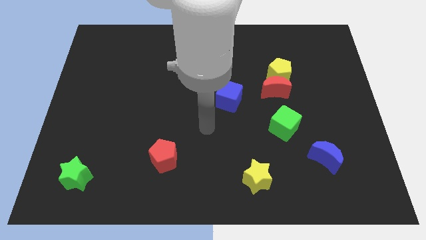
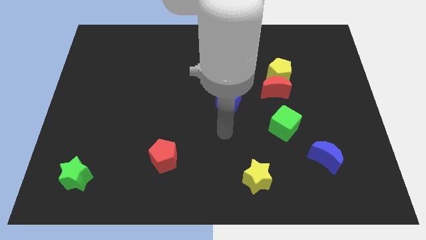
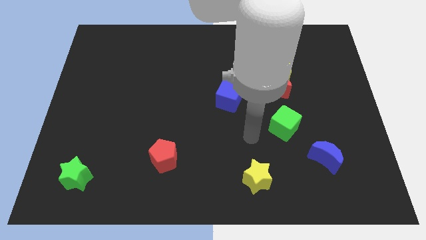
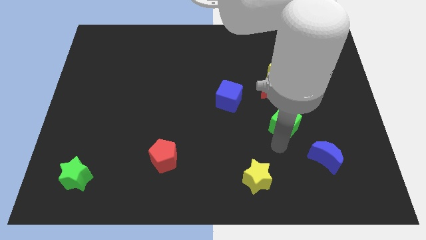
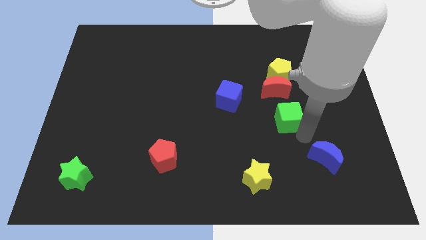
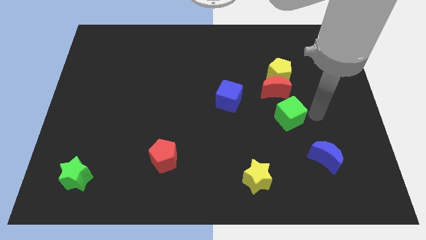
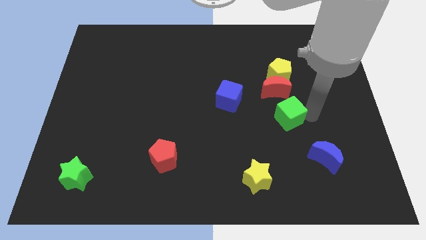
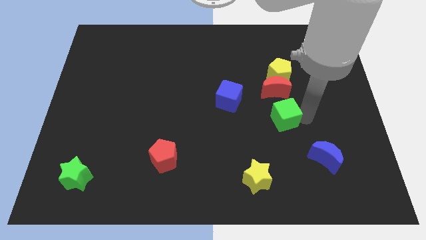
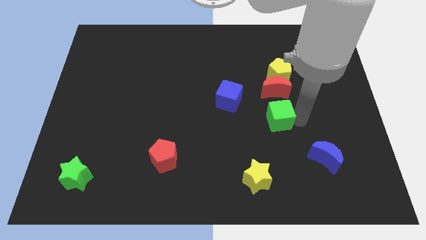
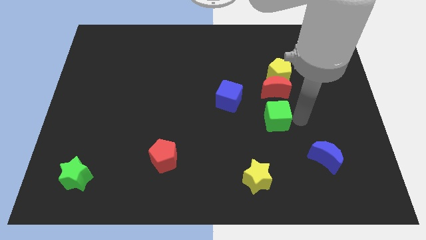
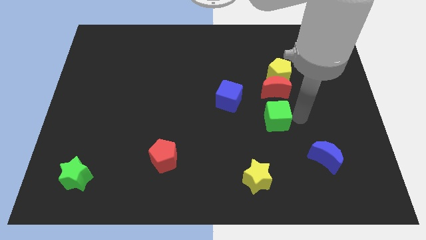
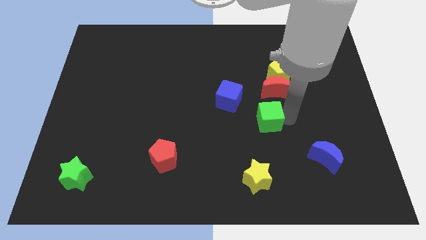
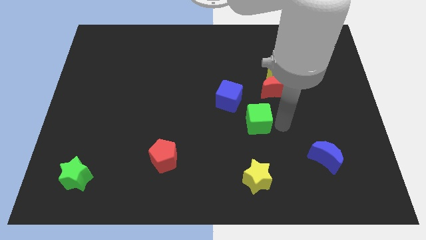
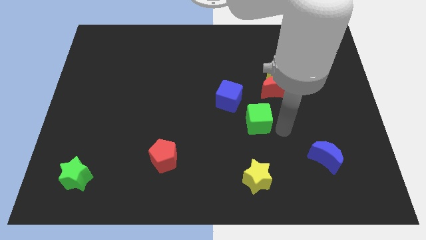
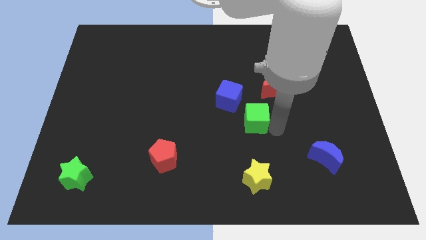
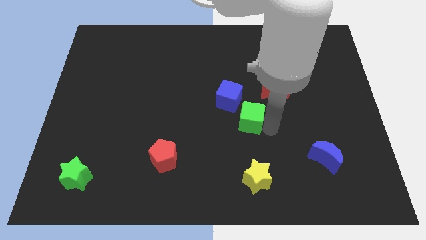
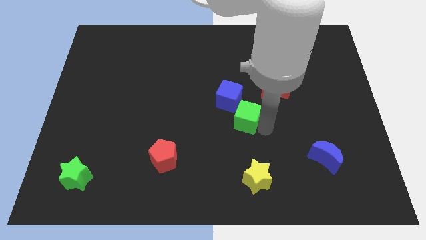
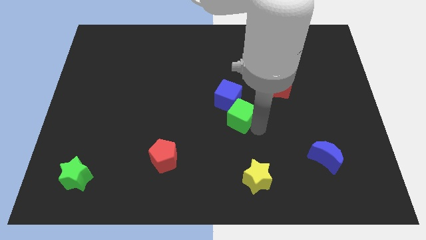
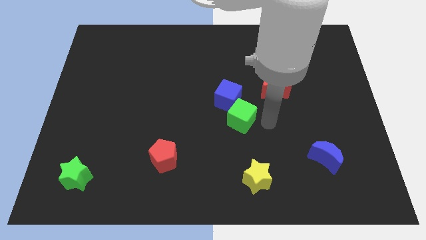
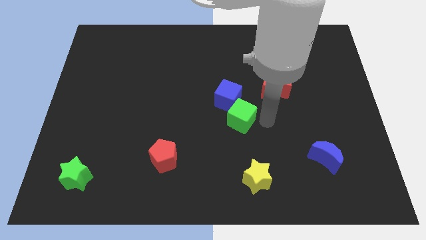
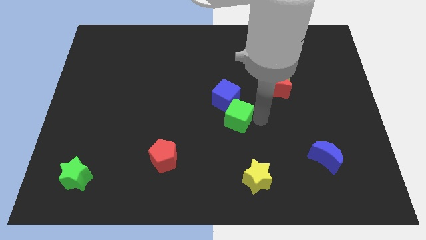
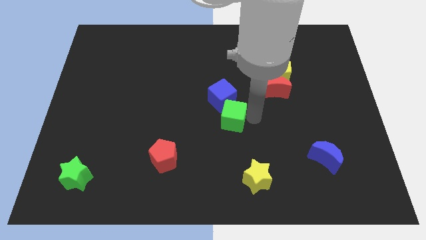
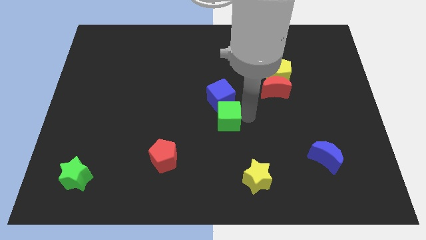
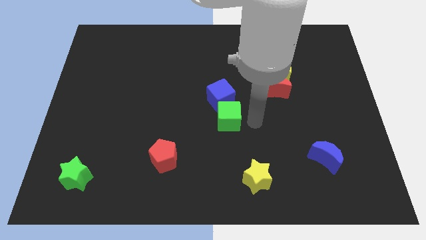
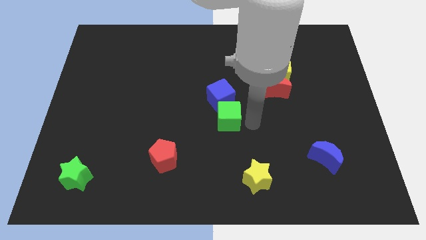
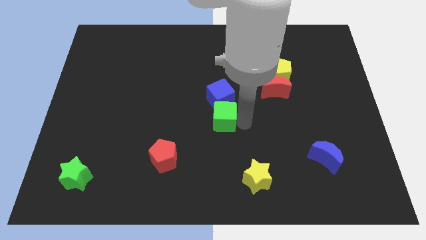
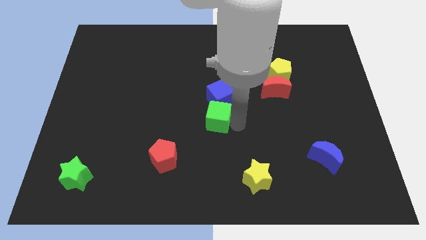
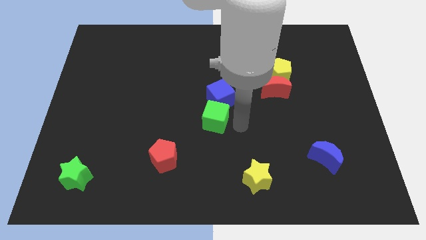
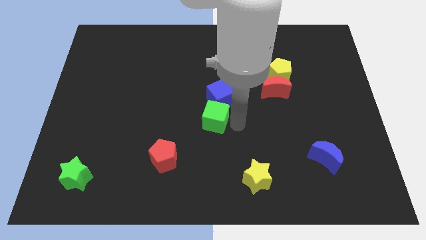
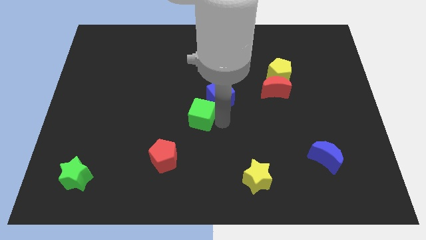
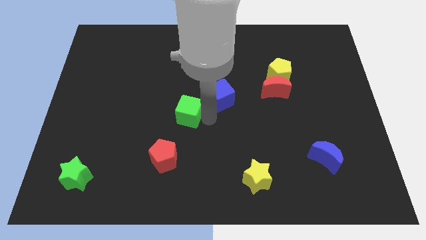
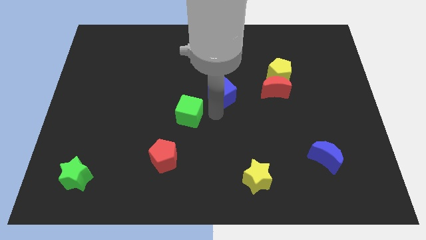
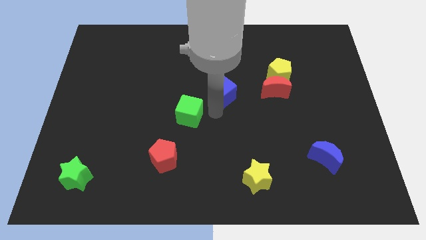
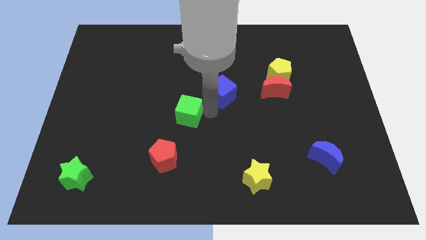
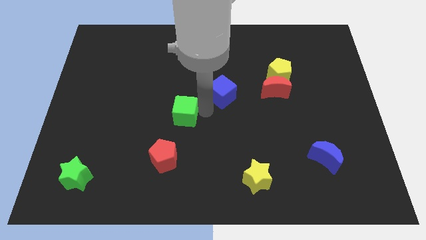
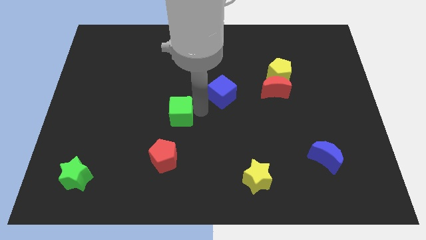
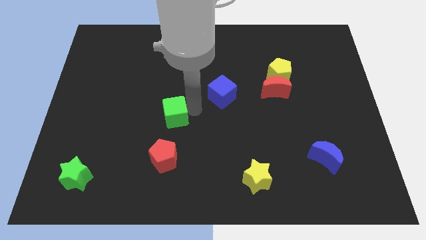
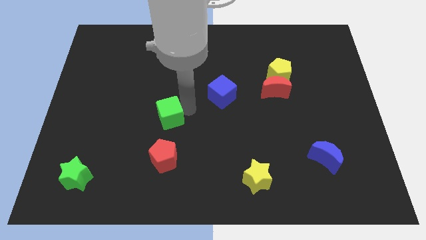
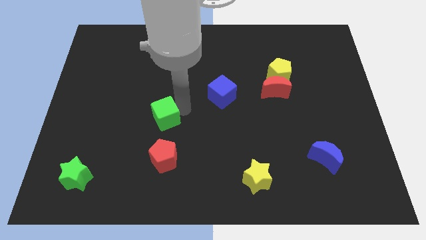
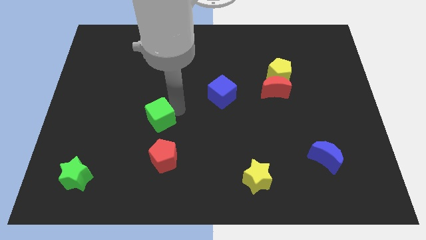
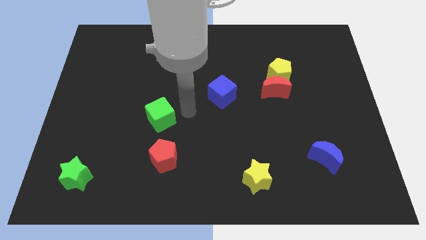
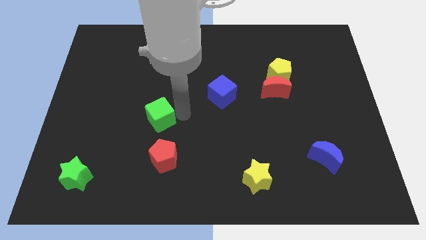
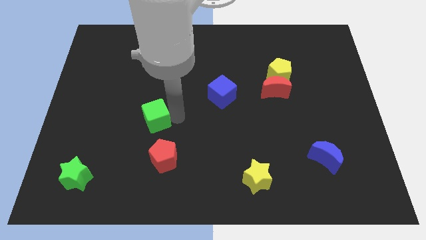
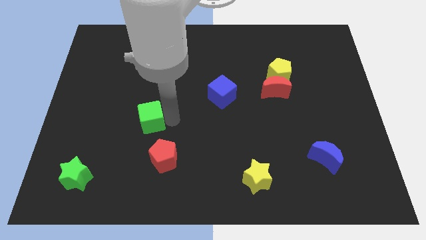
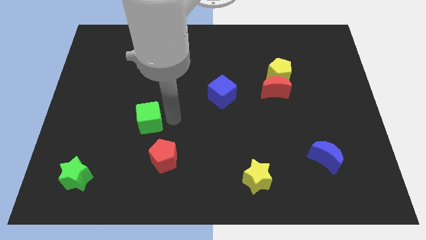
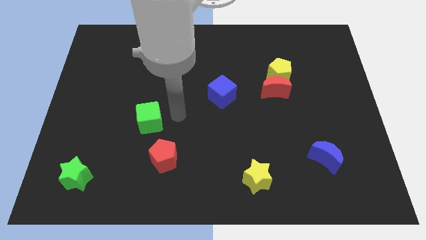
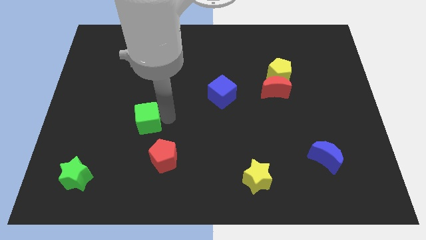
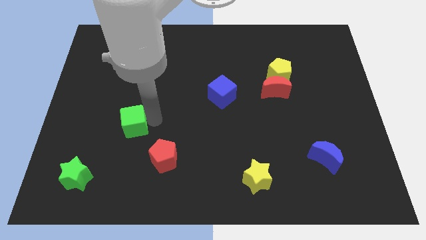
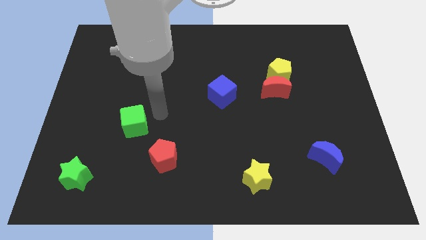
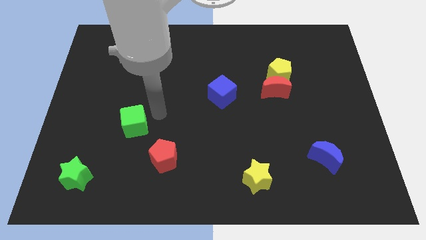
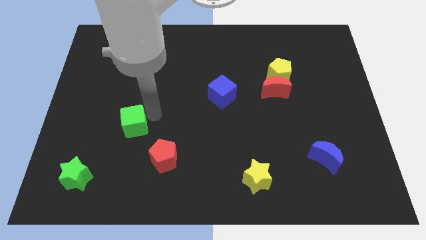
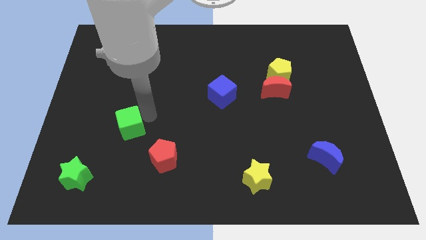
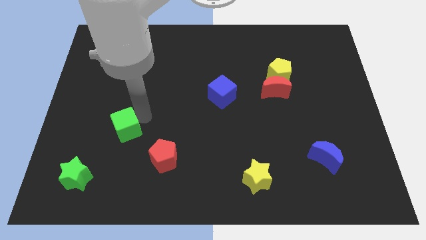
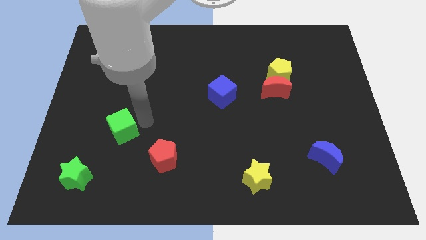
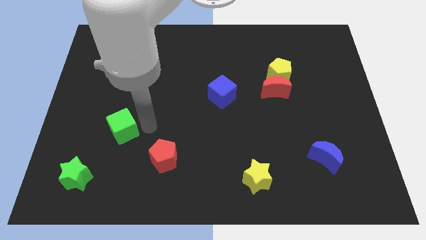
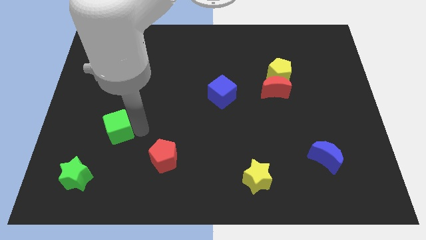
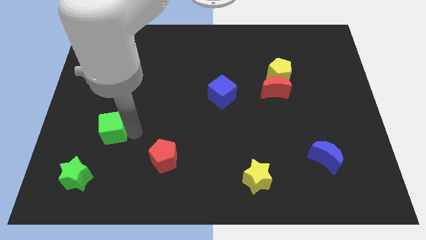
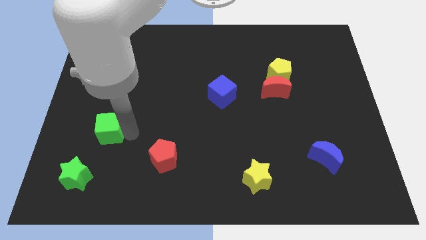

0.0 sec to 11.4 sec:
put the green cube to the top side of the green star

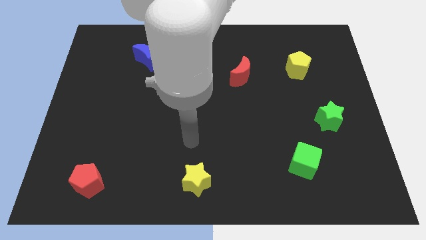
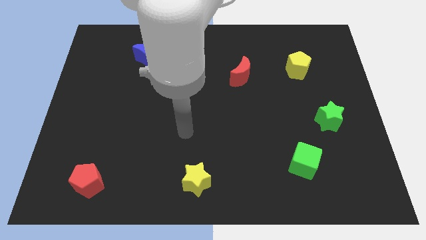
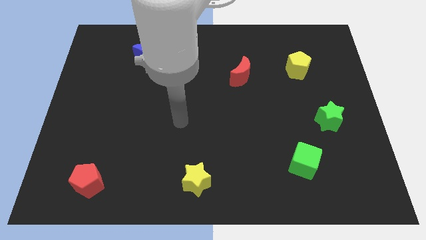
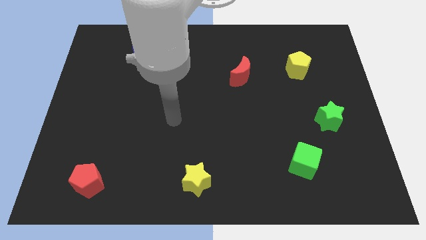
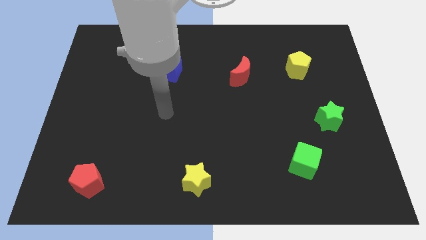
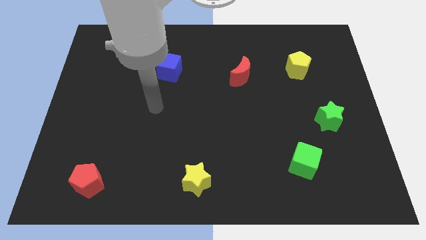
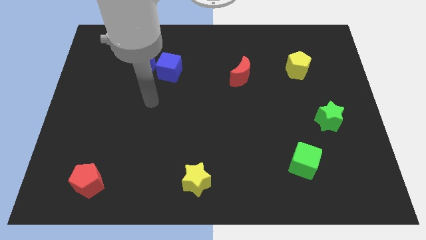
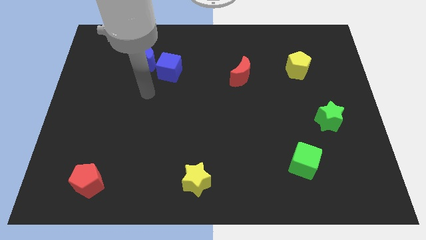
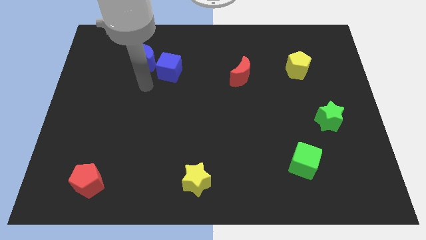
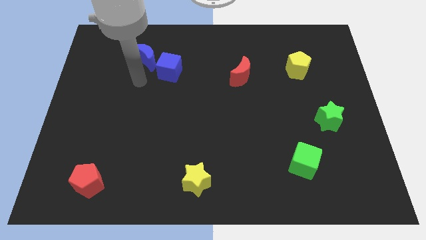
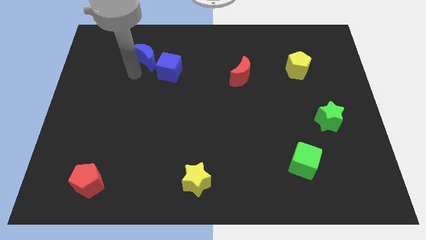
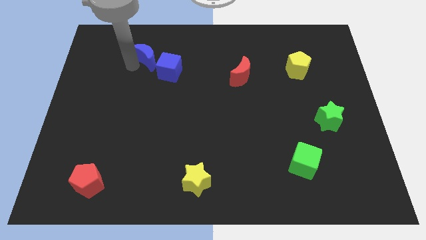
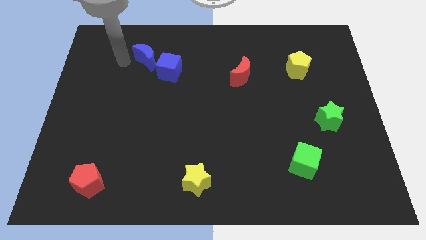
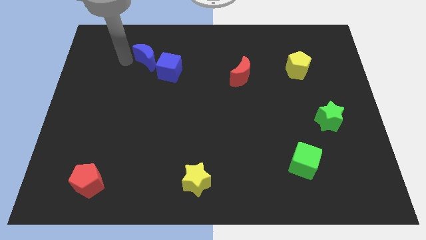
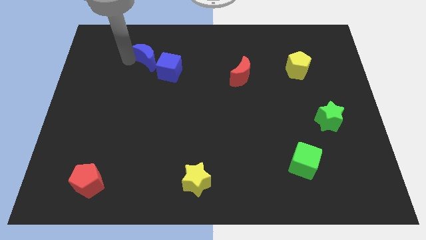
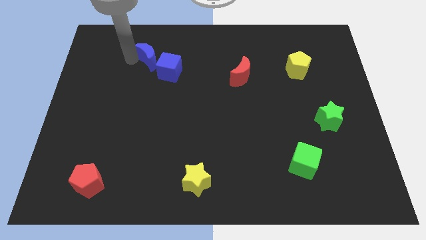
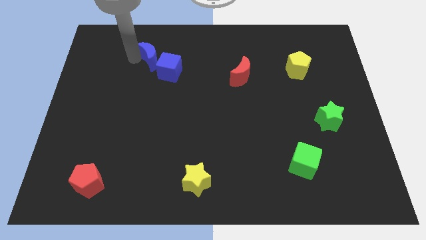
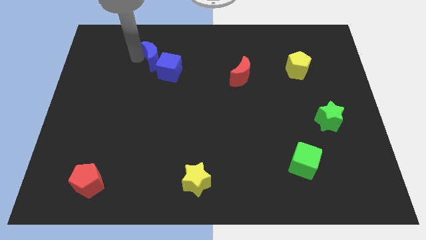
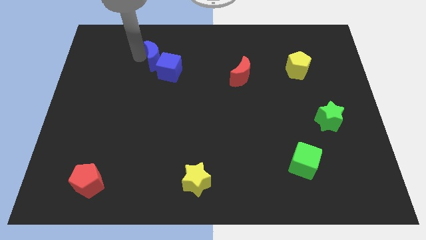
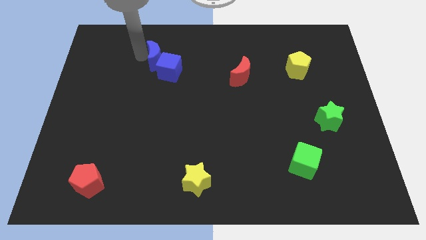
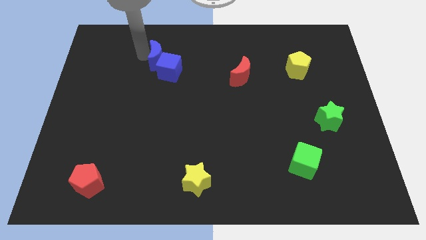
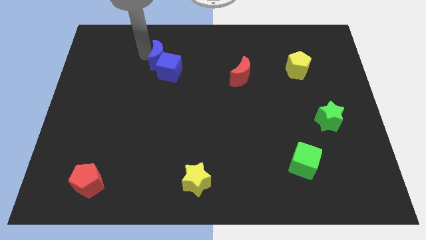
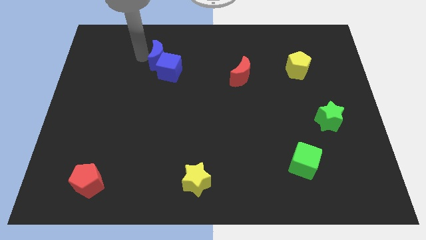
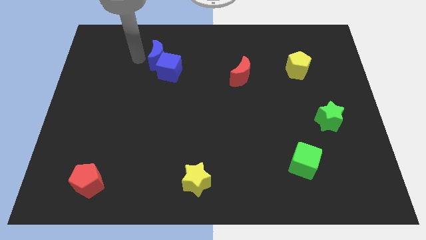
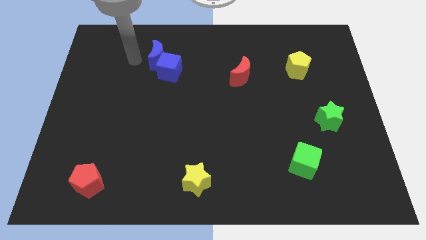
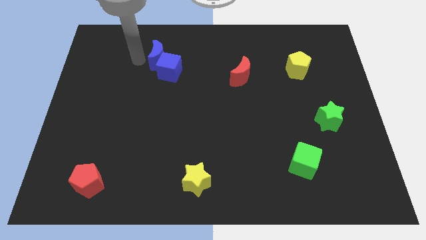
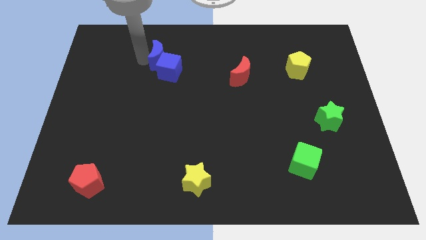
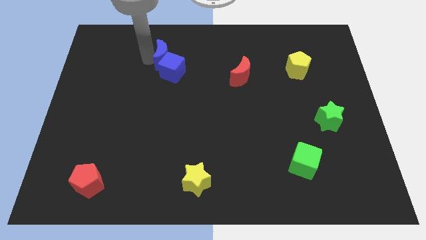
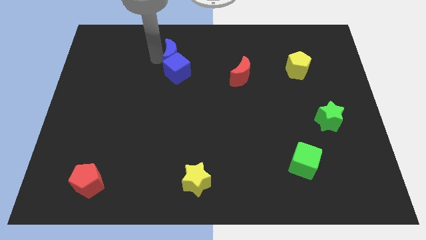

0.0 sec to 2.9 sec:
push the blue moon to the top right of the blue cube
